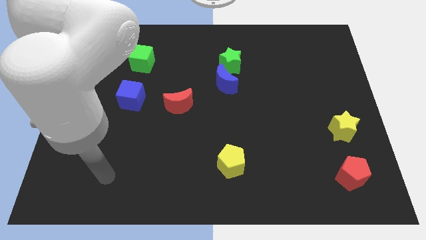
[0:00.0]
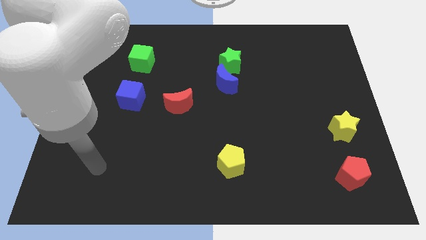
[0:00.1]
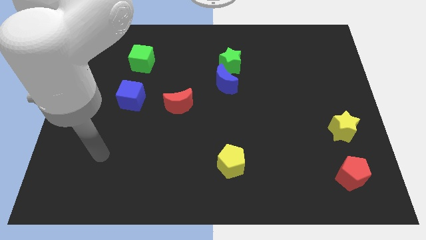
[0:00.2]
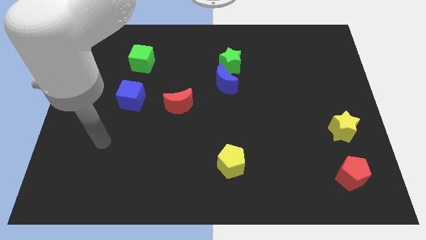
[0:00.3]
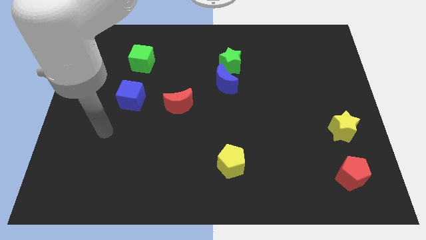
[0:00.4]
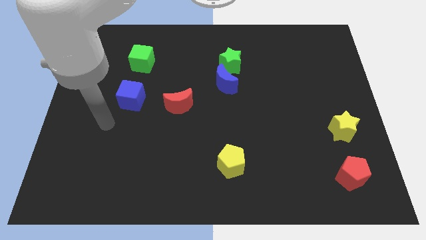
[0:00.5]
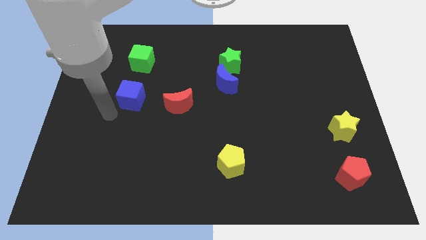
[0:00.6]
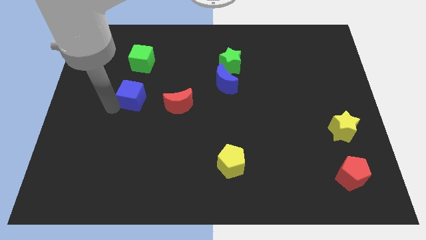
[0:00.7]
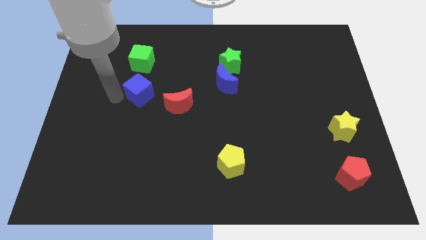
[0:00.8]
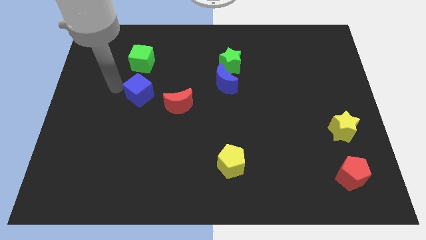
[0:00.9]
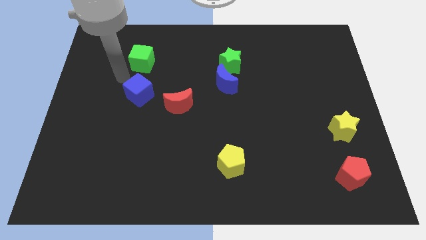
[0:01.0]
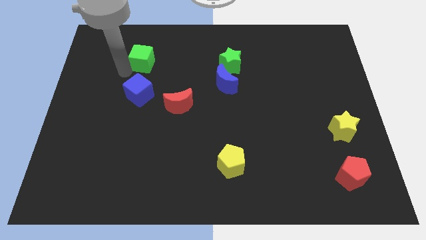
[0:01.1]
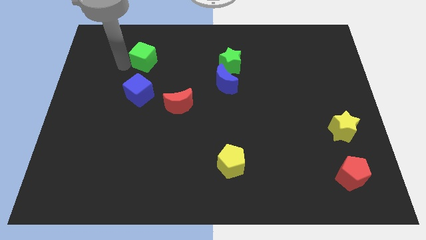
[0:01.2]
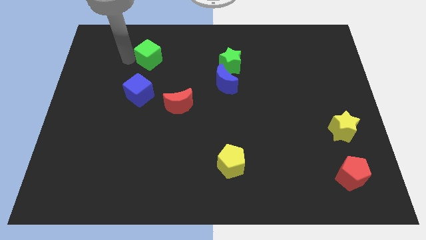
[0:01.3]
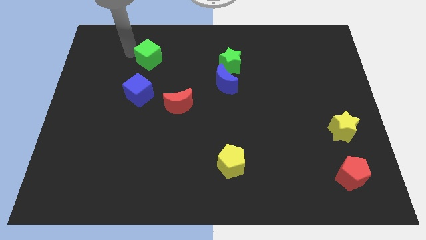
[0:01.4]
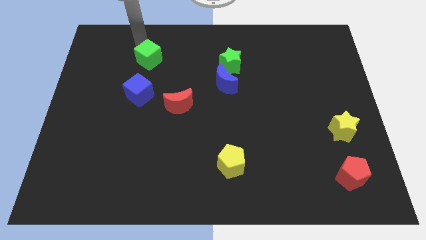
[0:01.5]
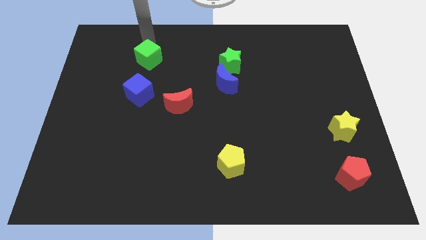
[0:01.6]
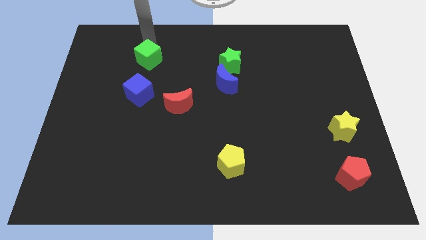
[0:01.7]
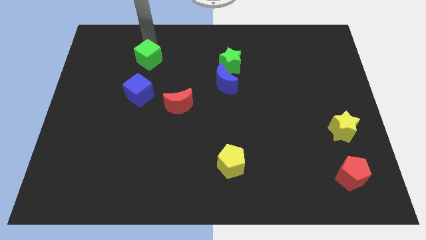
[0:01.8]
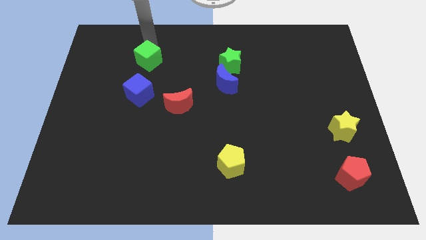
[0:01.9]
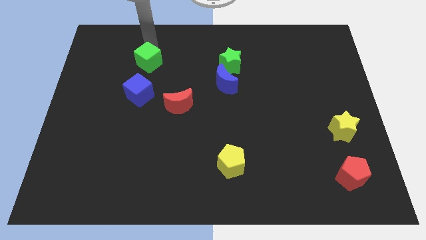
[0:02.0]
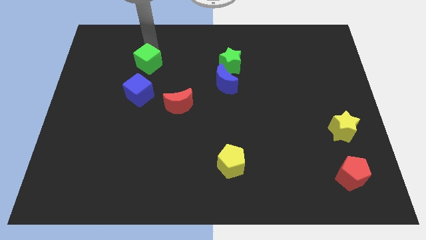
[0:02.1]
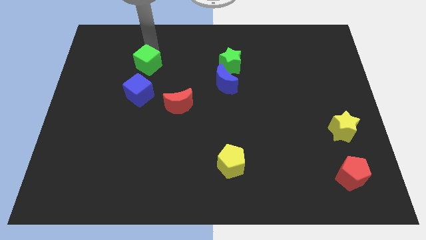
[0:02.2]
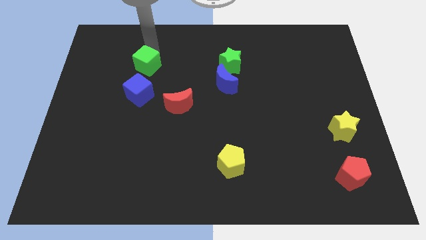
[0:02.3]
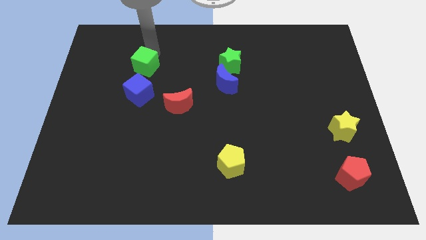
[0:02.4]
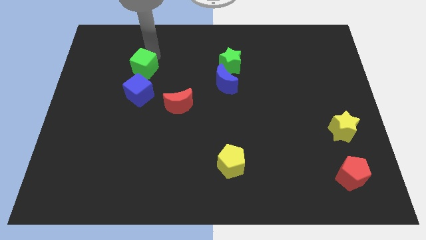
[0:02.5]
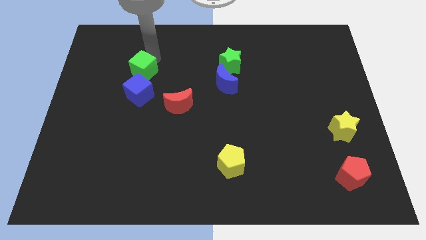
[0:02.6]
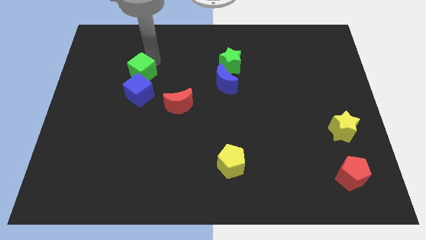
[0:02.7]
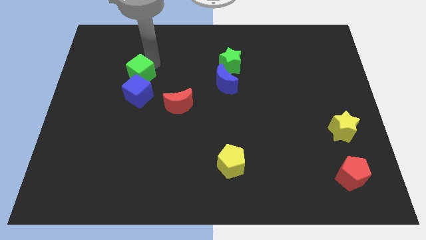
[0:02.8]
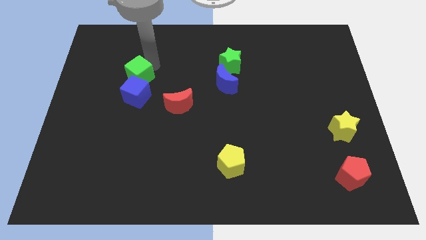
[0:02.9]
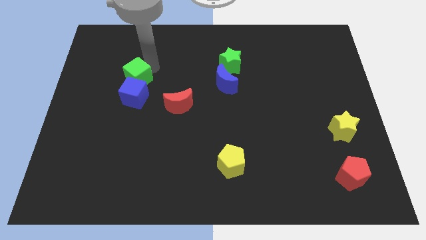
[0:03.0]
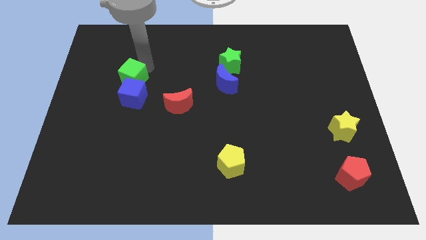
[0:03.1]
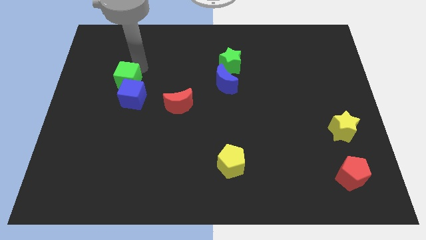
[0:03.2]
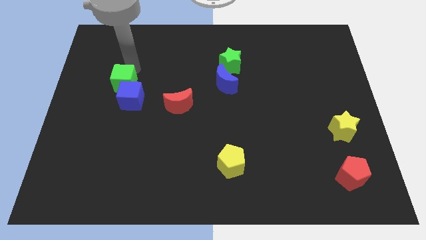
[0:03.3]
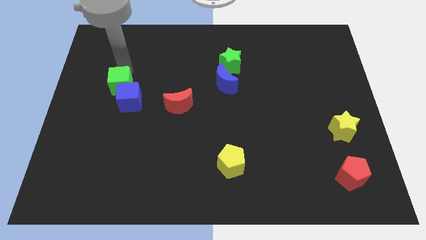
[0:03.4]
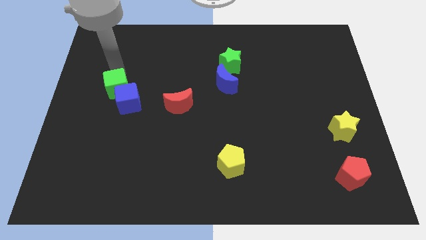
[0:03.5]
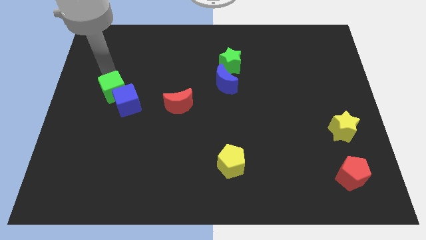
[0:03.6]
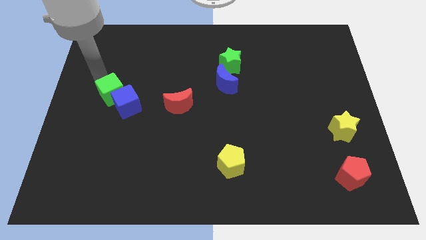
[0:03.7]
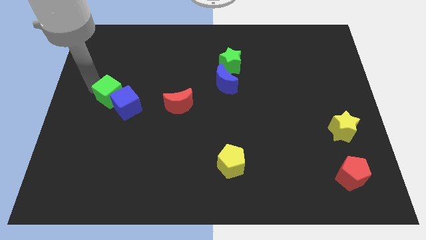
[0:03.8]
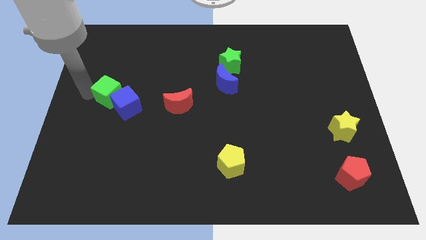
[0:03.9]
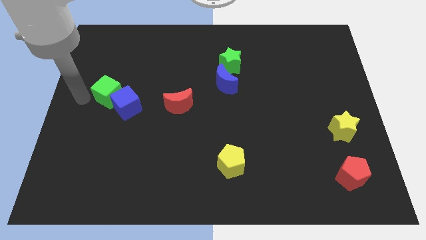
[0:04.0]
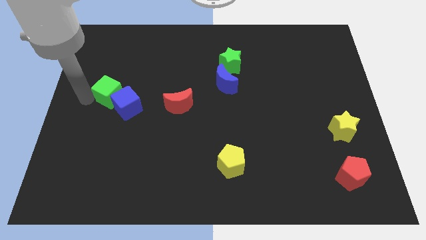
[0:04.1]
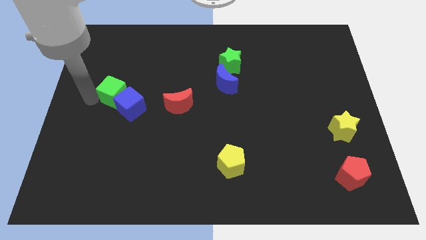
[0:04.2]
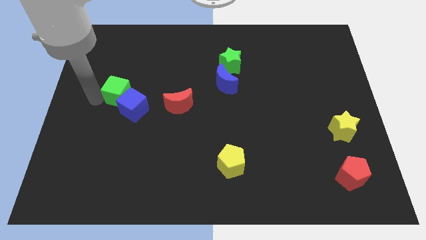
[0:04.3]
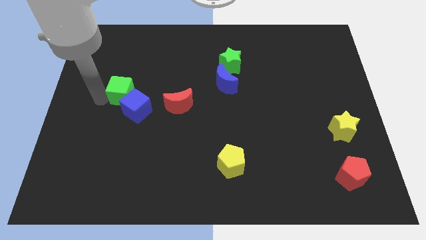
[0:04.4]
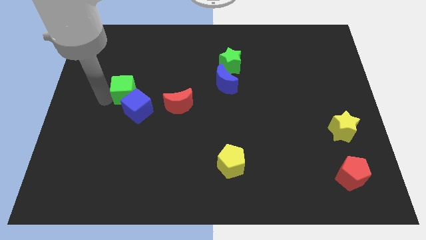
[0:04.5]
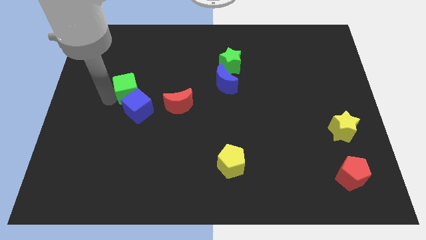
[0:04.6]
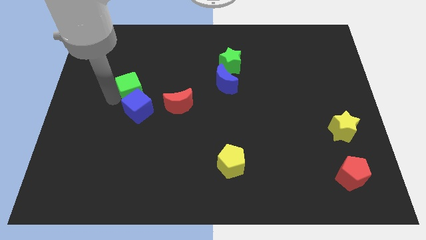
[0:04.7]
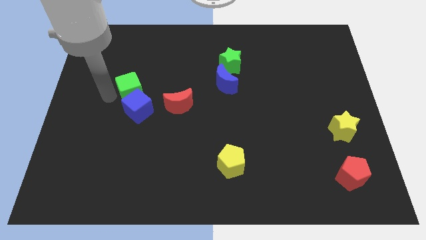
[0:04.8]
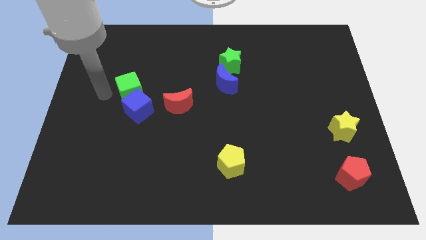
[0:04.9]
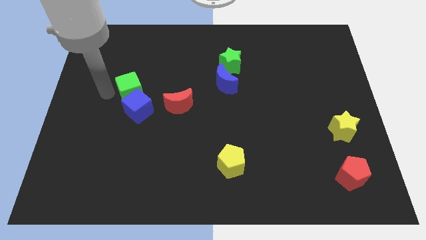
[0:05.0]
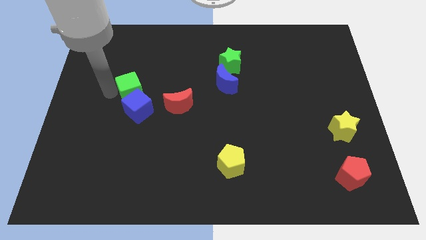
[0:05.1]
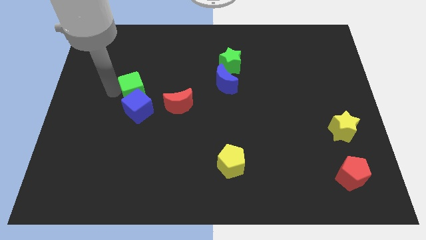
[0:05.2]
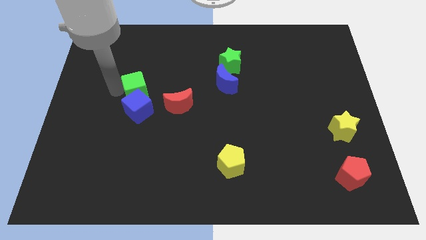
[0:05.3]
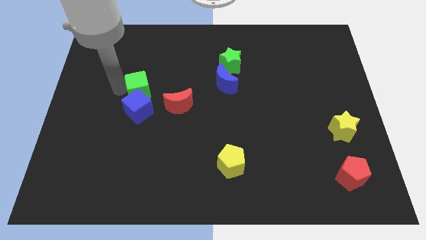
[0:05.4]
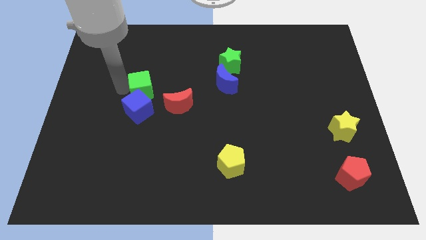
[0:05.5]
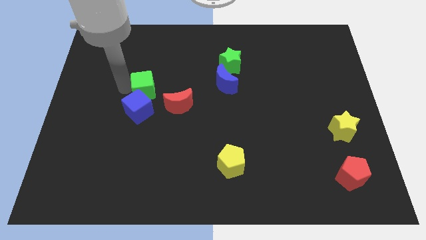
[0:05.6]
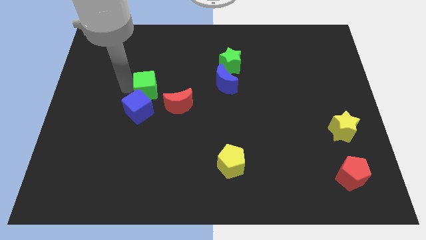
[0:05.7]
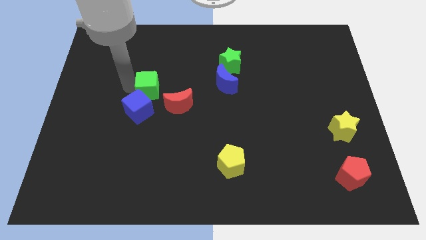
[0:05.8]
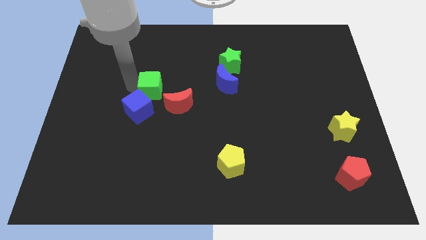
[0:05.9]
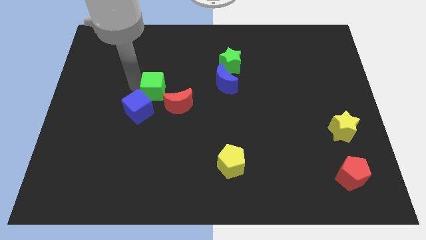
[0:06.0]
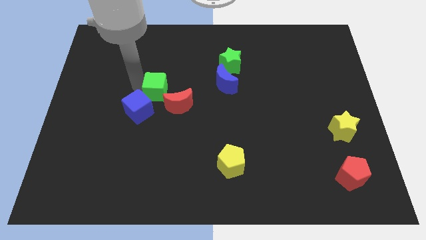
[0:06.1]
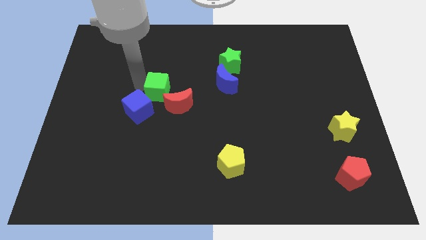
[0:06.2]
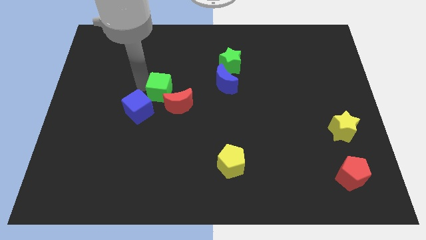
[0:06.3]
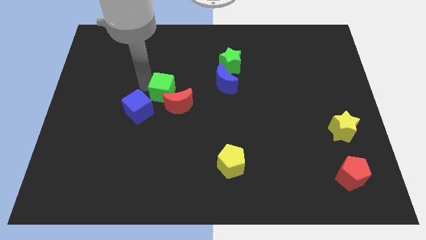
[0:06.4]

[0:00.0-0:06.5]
put the green cube towards the red moon

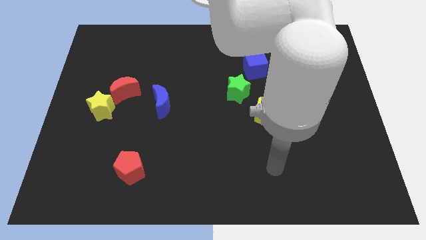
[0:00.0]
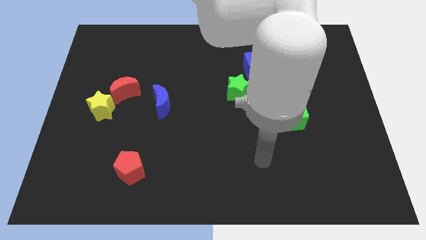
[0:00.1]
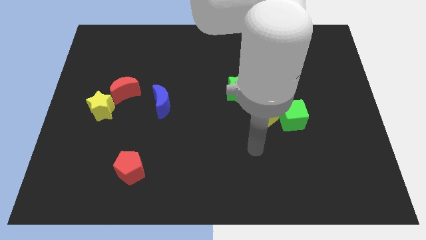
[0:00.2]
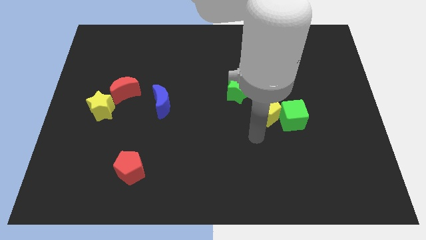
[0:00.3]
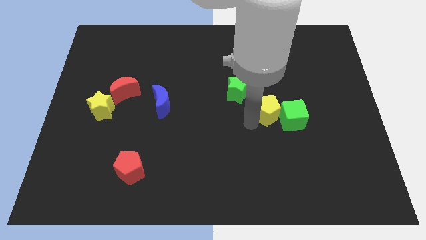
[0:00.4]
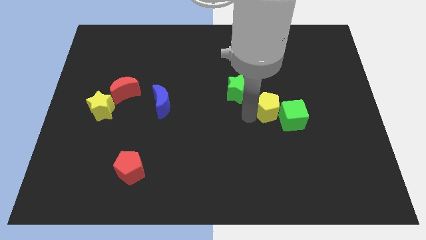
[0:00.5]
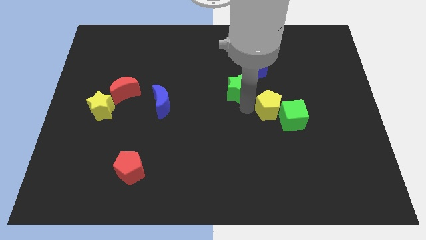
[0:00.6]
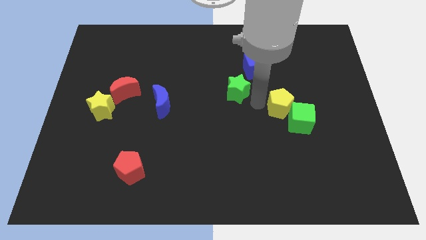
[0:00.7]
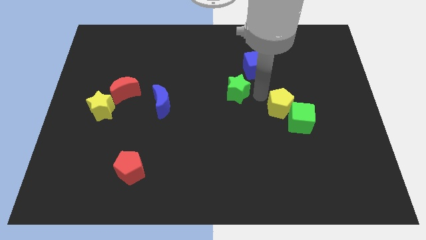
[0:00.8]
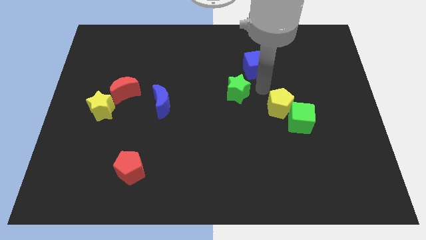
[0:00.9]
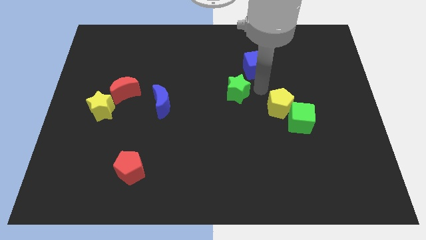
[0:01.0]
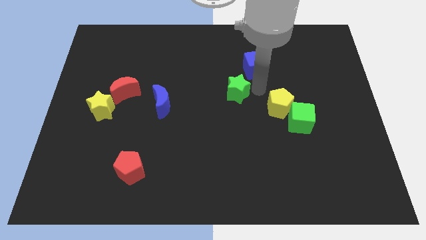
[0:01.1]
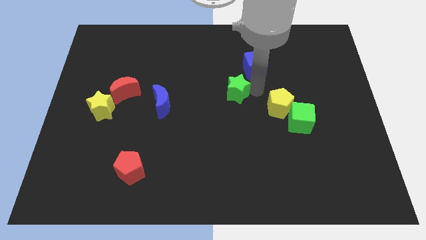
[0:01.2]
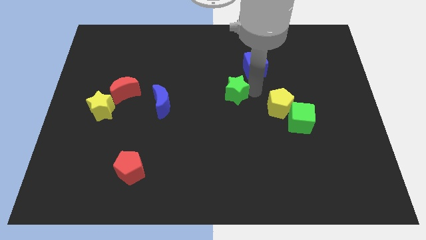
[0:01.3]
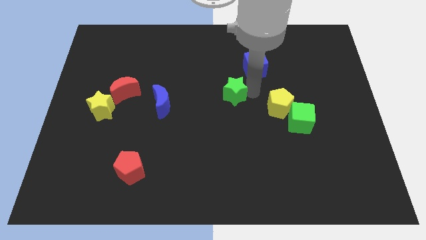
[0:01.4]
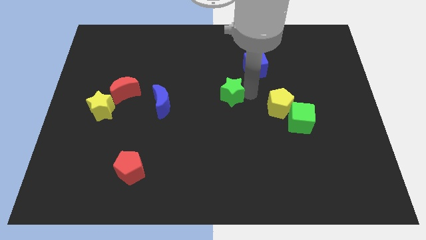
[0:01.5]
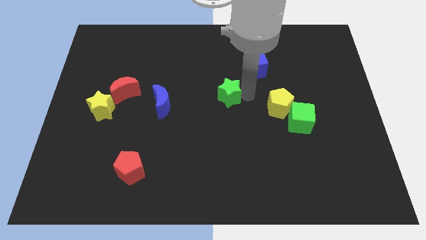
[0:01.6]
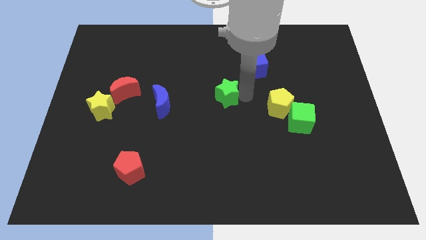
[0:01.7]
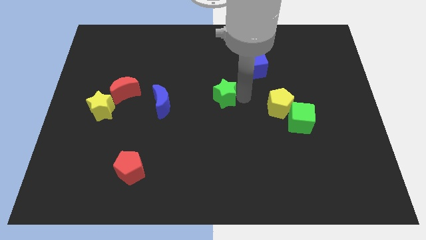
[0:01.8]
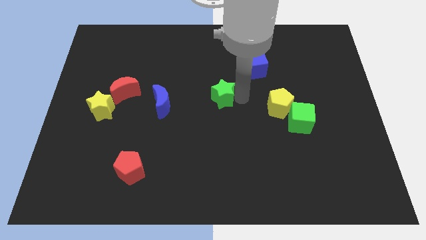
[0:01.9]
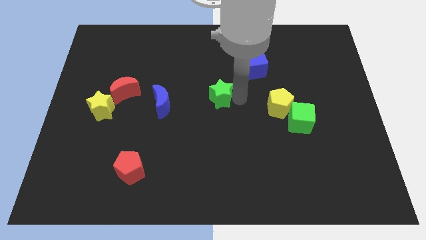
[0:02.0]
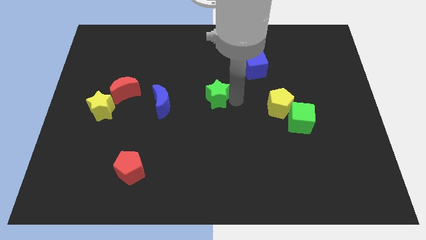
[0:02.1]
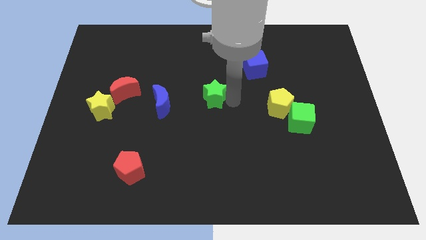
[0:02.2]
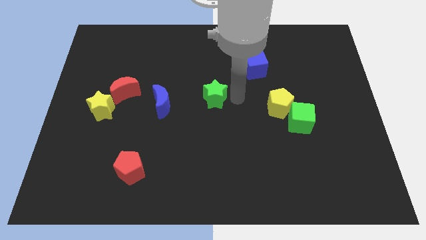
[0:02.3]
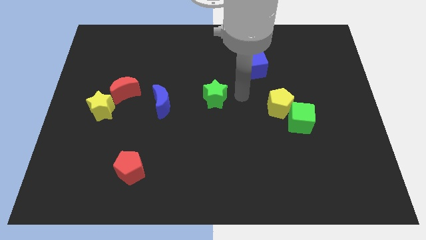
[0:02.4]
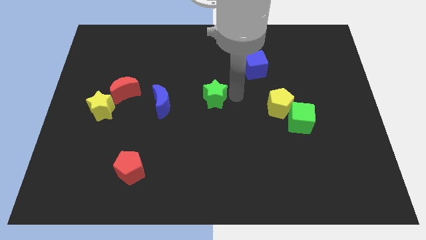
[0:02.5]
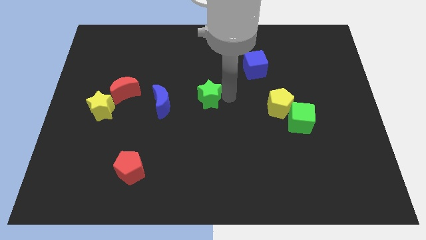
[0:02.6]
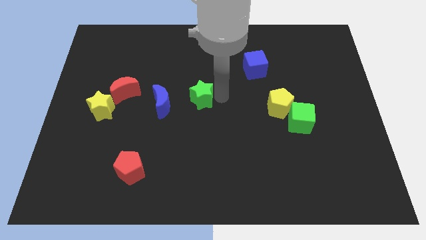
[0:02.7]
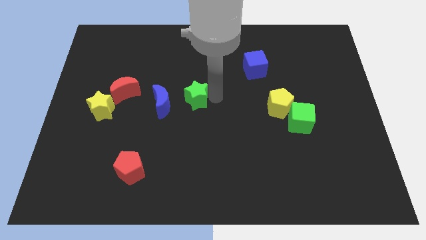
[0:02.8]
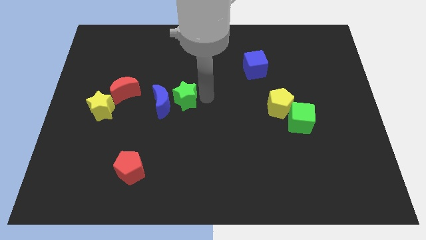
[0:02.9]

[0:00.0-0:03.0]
push the green star close to the blue moon
